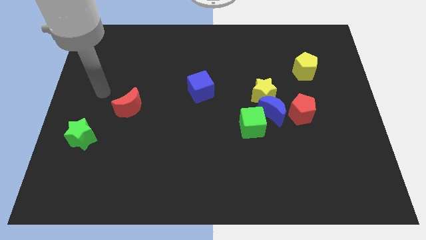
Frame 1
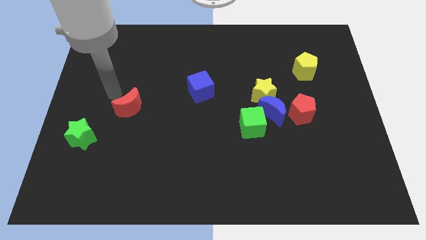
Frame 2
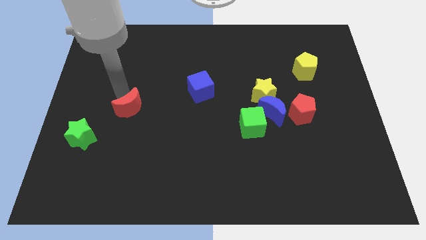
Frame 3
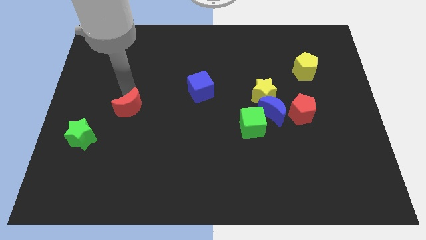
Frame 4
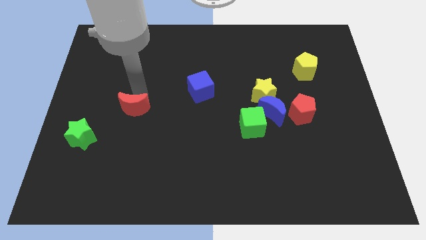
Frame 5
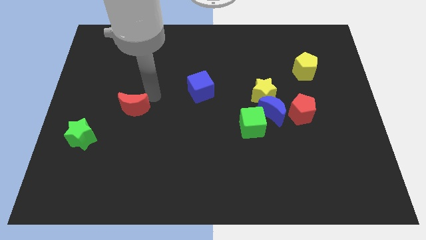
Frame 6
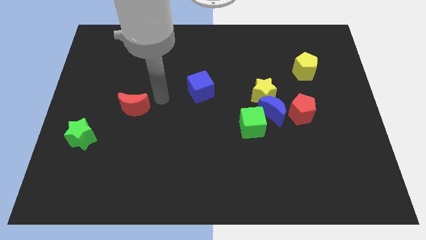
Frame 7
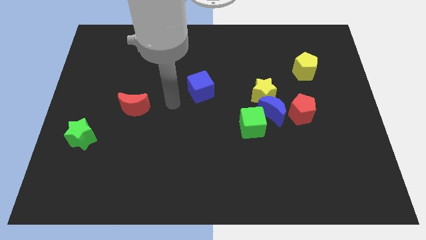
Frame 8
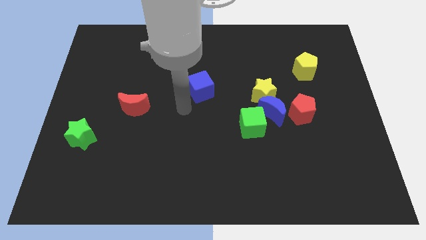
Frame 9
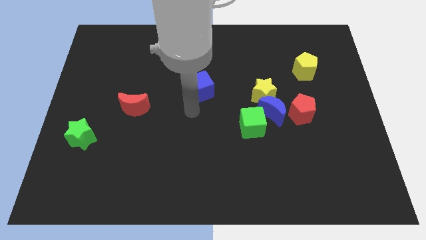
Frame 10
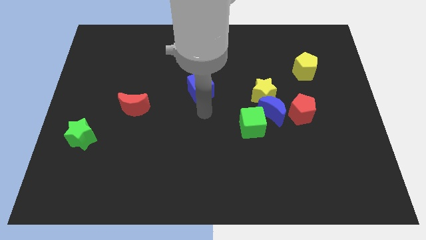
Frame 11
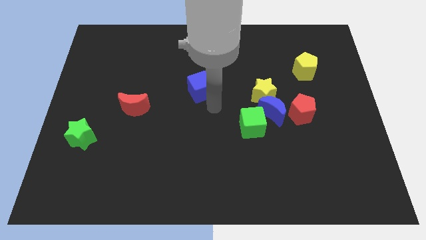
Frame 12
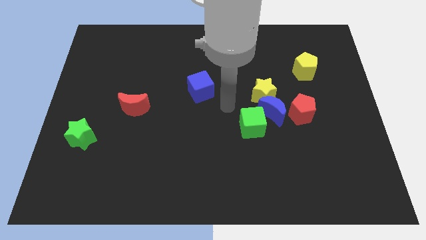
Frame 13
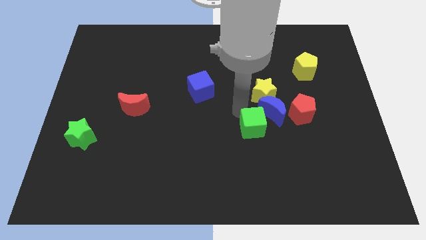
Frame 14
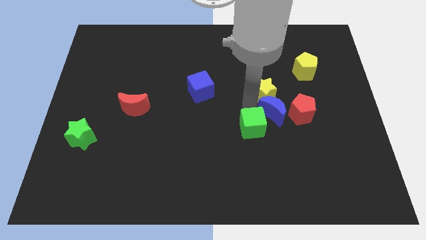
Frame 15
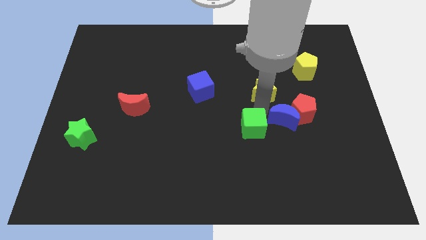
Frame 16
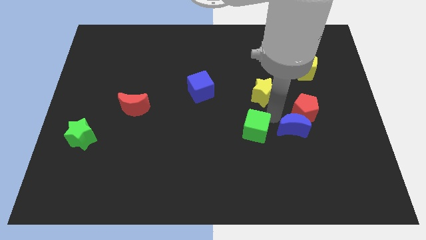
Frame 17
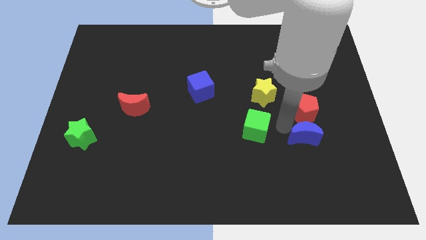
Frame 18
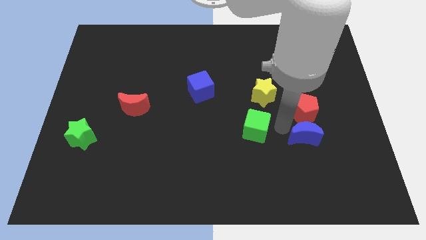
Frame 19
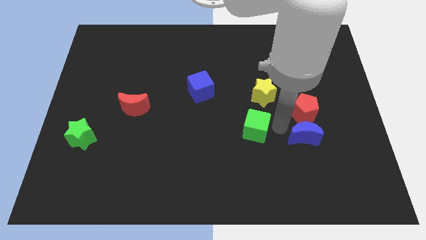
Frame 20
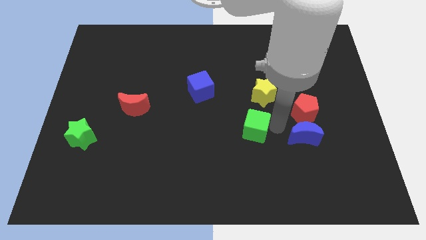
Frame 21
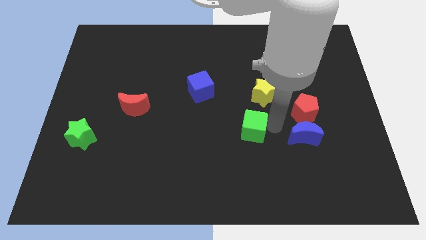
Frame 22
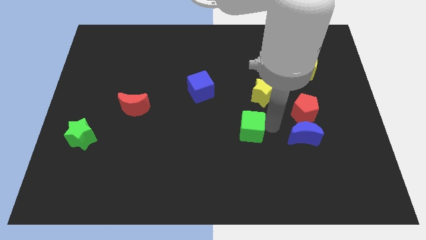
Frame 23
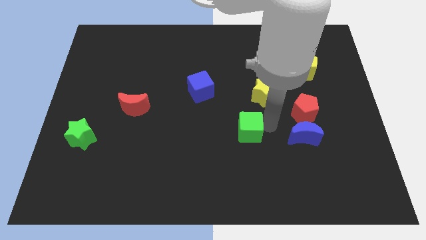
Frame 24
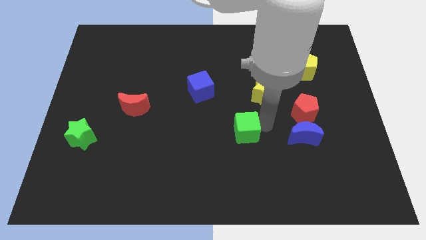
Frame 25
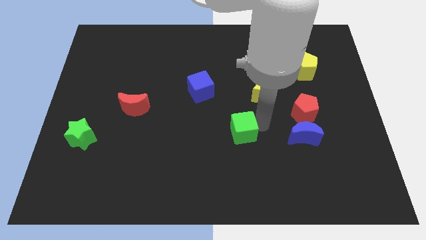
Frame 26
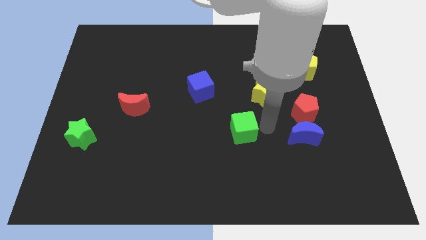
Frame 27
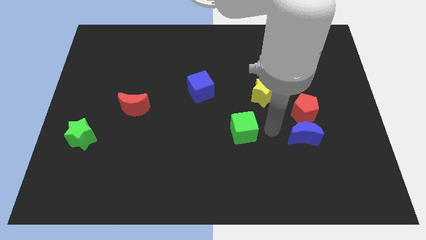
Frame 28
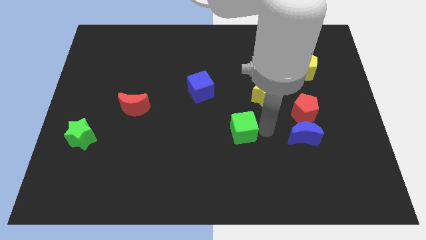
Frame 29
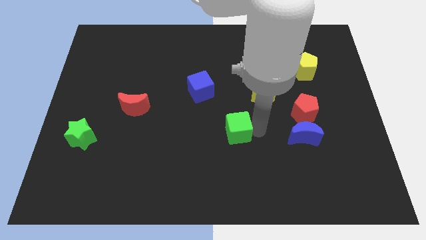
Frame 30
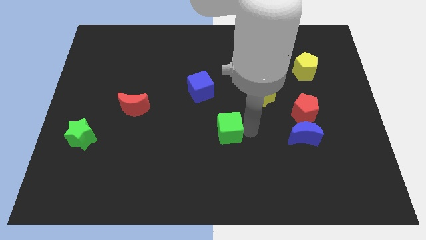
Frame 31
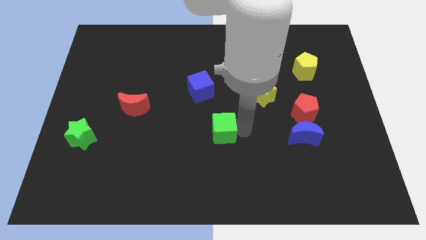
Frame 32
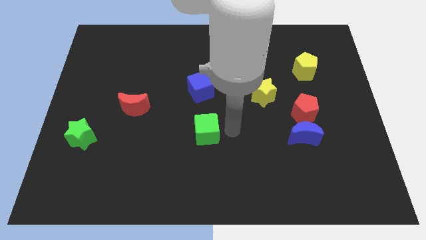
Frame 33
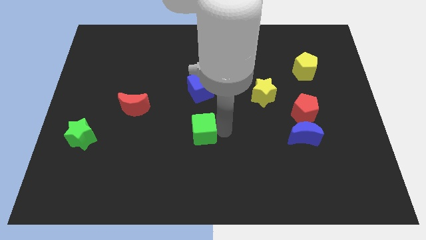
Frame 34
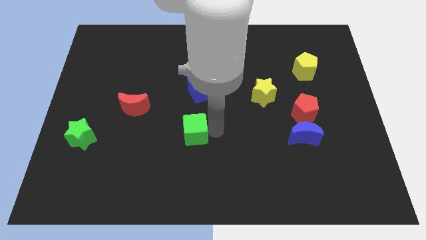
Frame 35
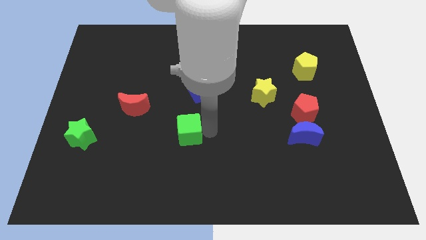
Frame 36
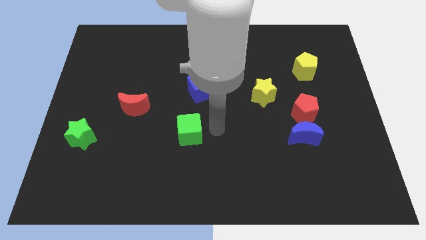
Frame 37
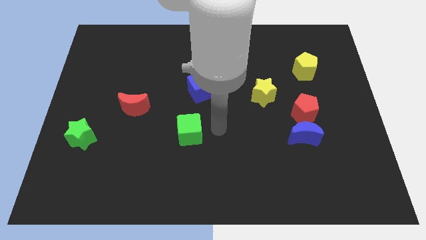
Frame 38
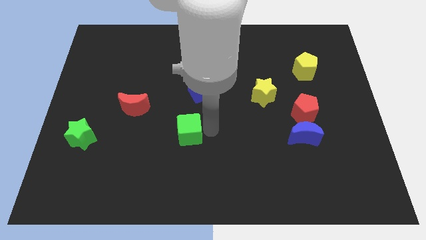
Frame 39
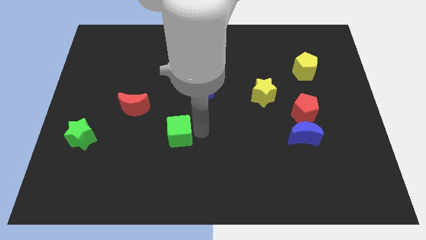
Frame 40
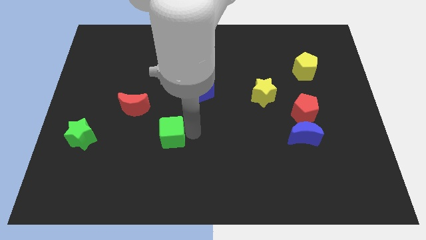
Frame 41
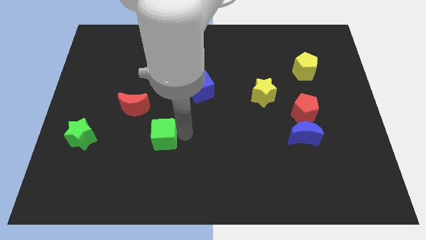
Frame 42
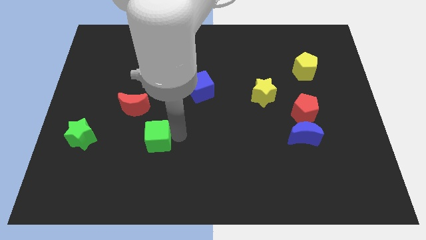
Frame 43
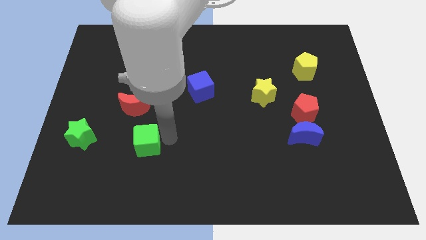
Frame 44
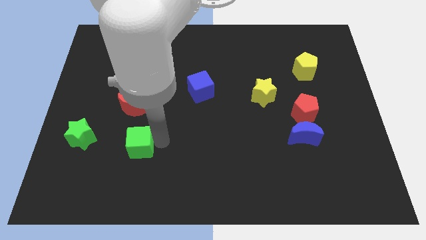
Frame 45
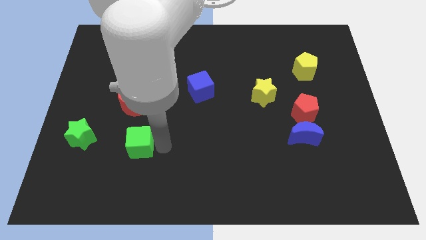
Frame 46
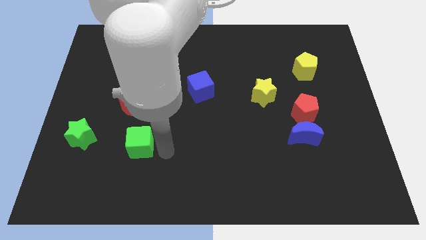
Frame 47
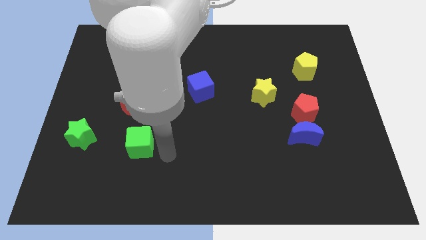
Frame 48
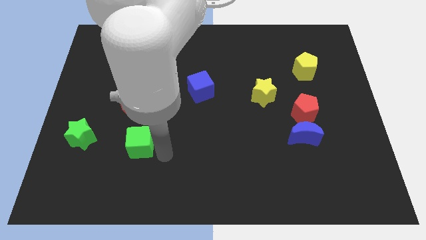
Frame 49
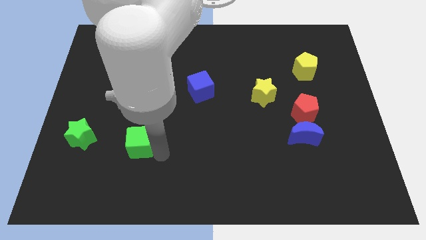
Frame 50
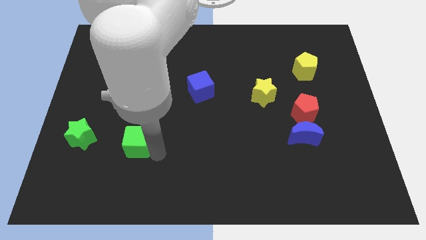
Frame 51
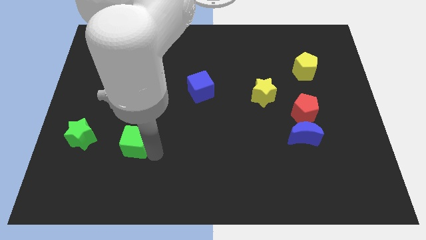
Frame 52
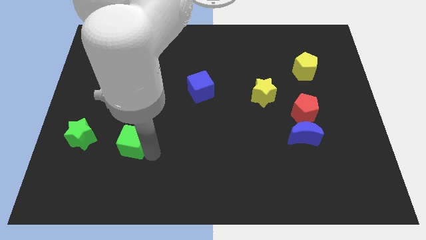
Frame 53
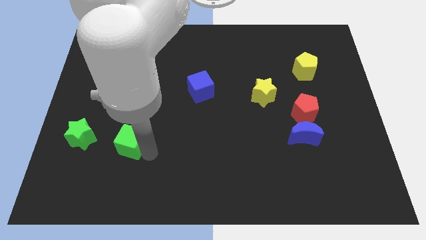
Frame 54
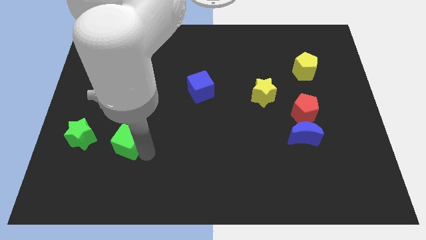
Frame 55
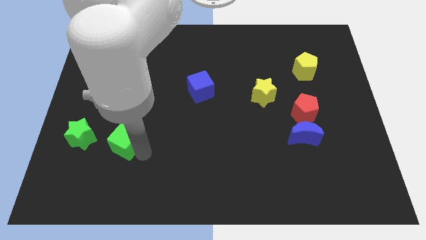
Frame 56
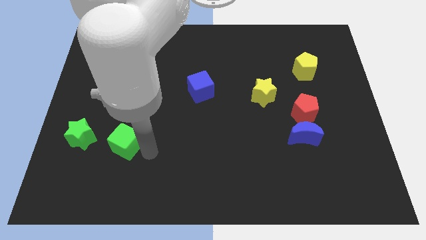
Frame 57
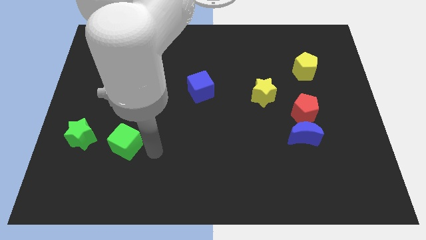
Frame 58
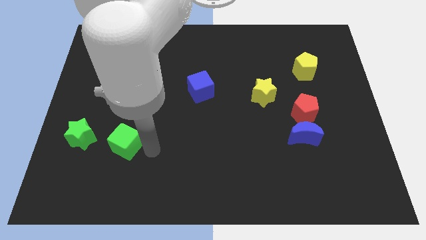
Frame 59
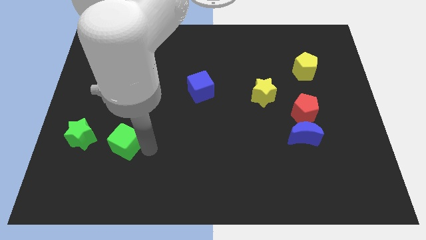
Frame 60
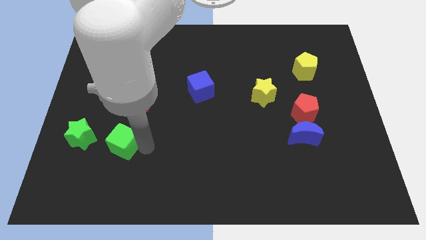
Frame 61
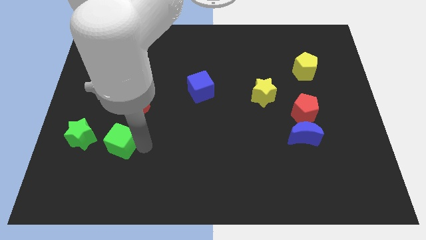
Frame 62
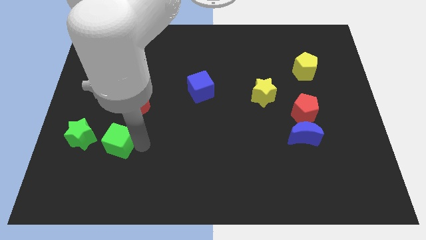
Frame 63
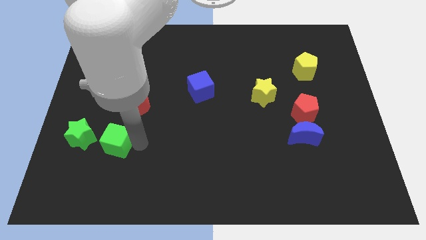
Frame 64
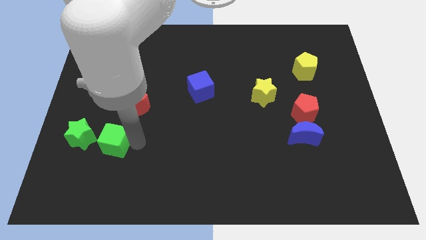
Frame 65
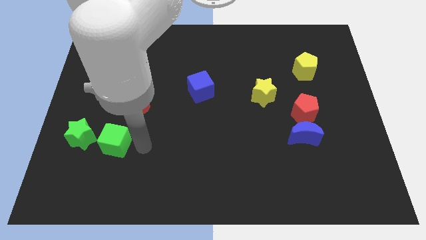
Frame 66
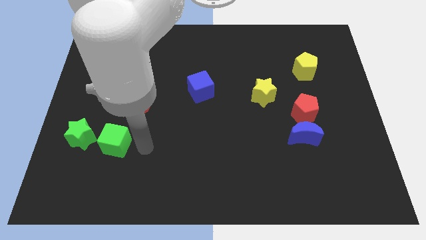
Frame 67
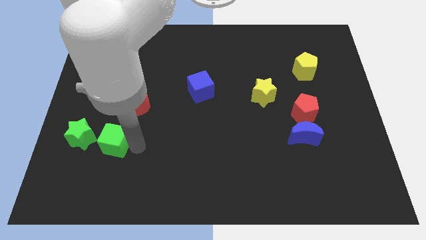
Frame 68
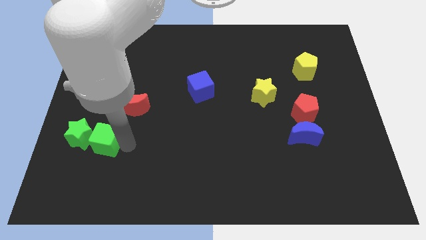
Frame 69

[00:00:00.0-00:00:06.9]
put the green cube close to the green star

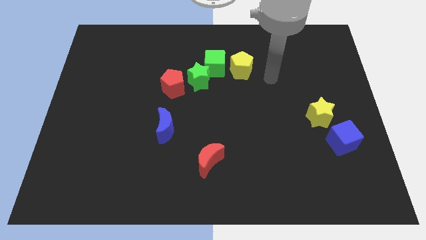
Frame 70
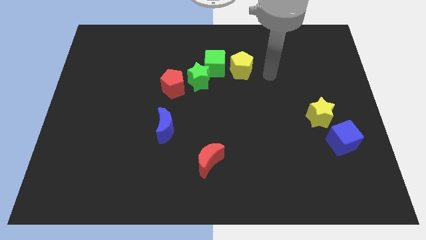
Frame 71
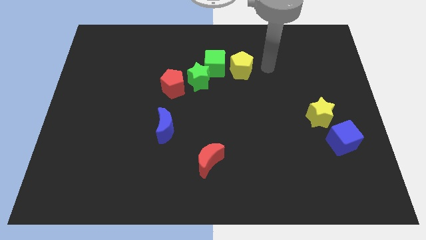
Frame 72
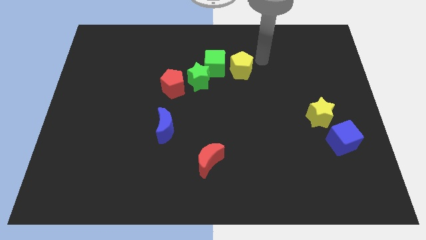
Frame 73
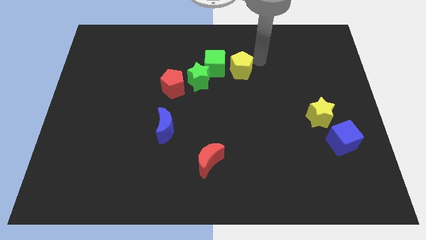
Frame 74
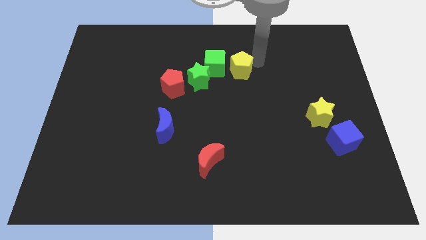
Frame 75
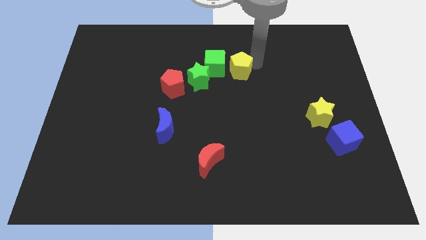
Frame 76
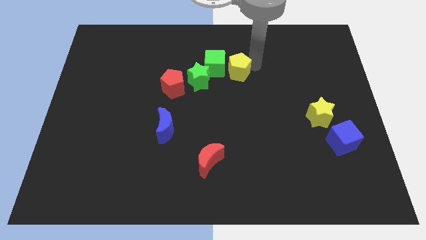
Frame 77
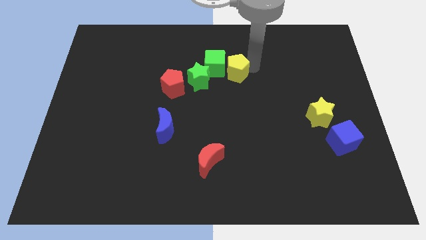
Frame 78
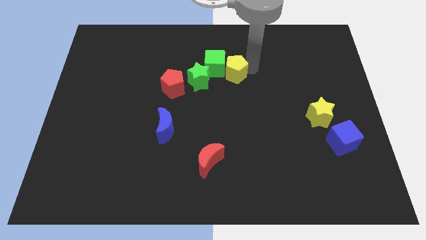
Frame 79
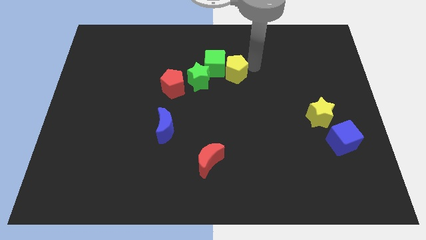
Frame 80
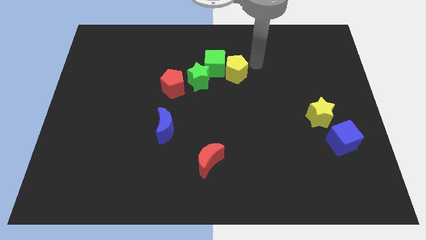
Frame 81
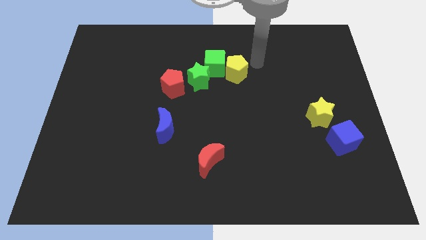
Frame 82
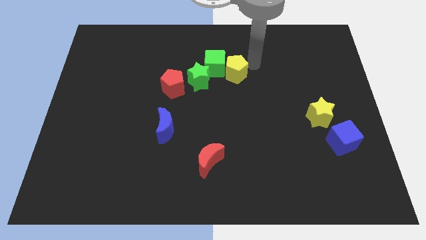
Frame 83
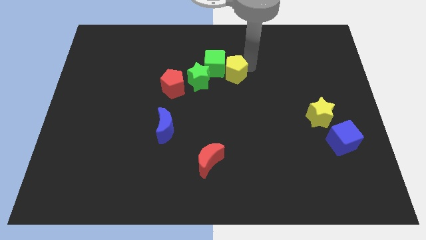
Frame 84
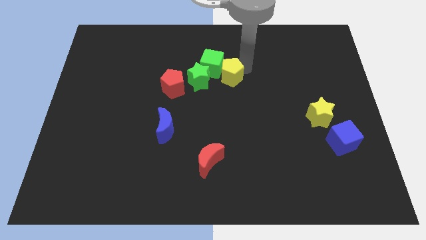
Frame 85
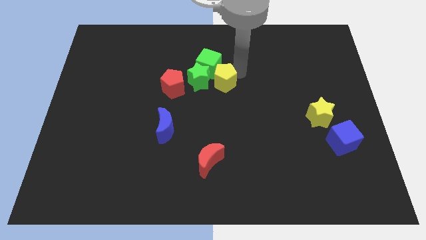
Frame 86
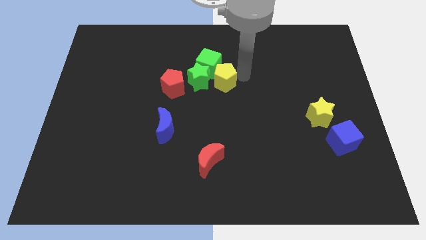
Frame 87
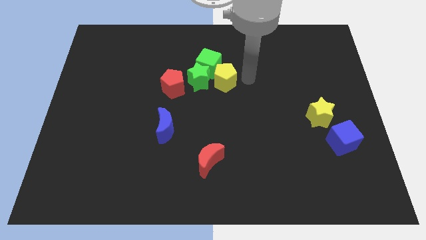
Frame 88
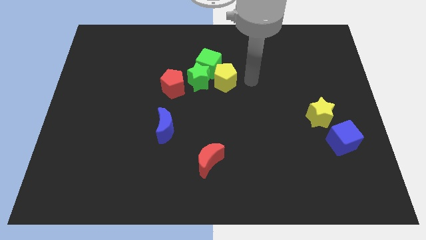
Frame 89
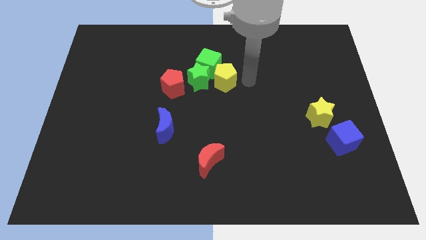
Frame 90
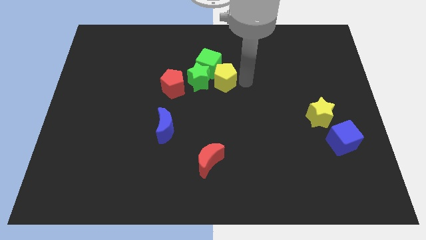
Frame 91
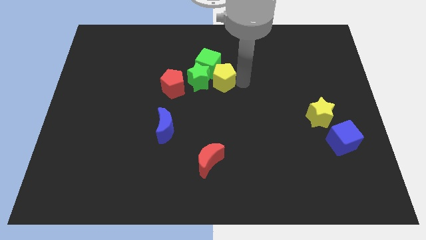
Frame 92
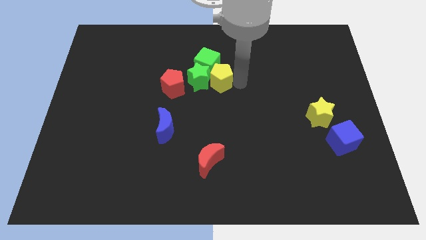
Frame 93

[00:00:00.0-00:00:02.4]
slide the yellow pentagon to the green star
